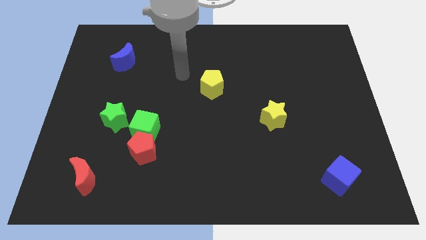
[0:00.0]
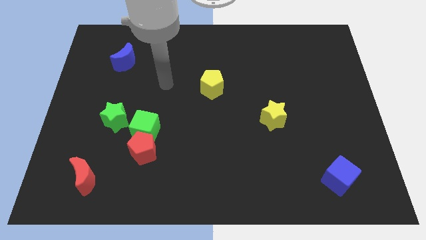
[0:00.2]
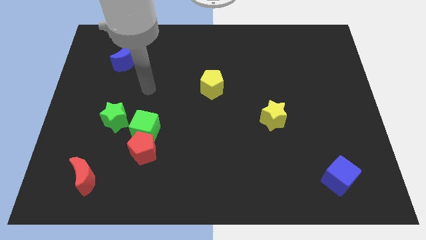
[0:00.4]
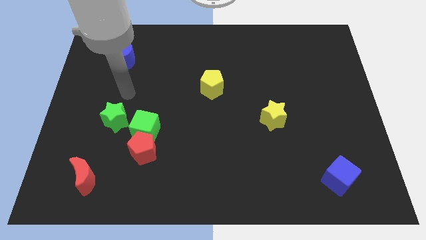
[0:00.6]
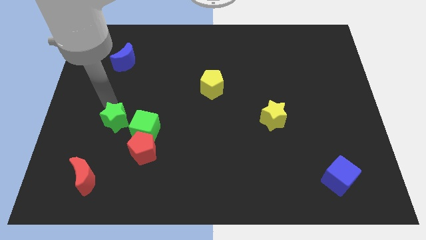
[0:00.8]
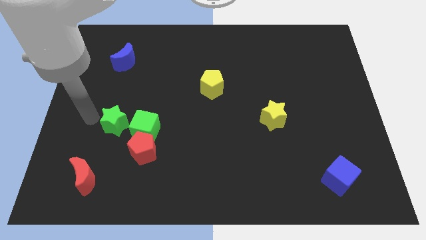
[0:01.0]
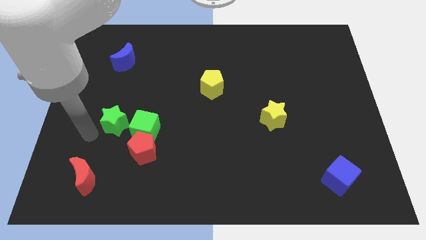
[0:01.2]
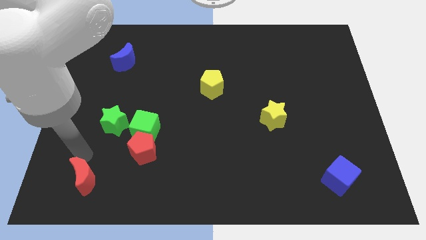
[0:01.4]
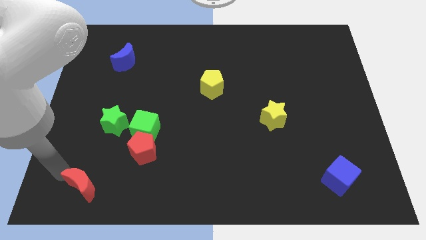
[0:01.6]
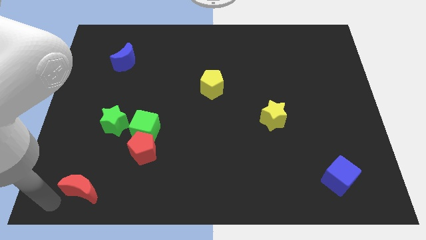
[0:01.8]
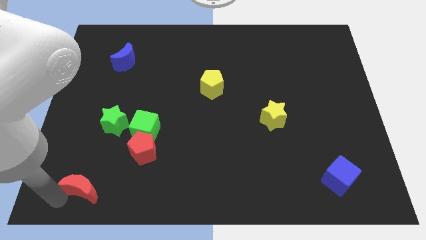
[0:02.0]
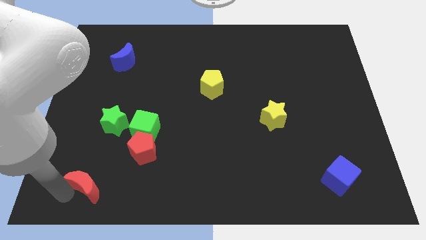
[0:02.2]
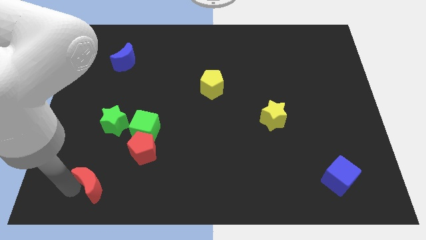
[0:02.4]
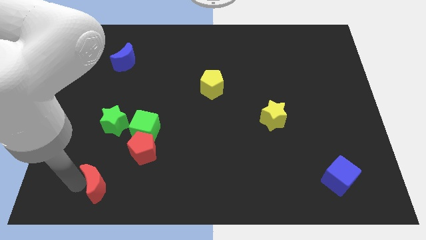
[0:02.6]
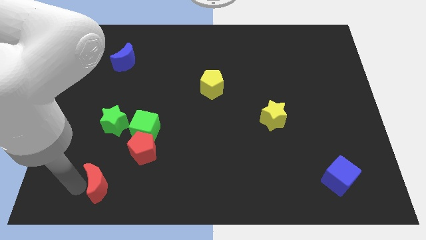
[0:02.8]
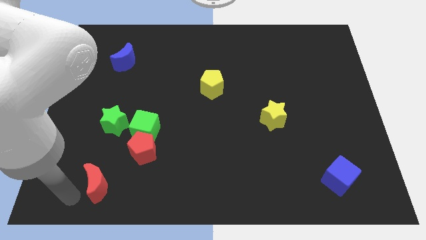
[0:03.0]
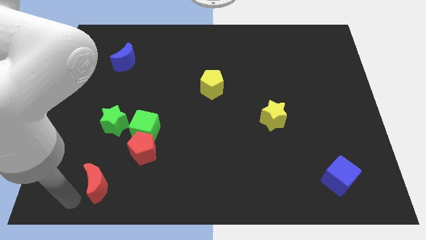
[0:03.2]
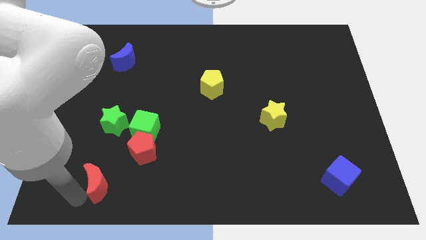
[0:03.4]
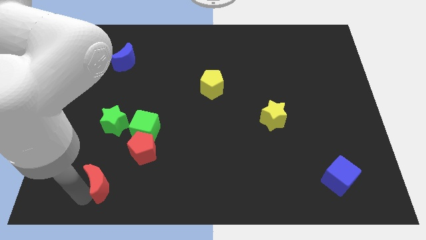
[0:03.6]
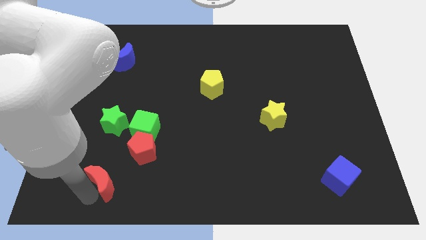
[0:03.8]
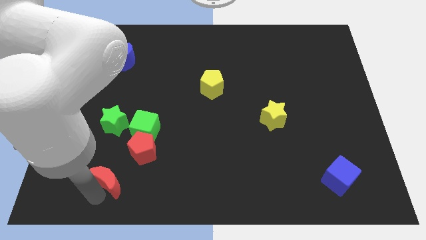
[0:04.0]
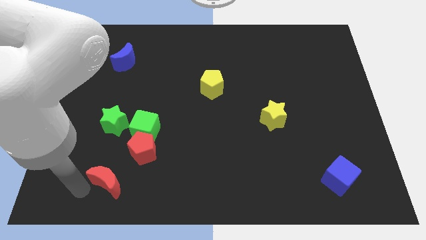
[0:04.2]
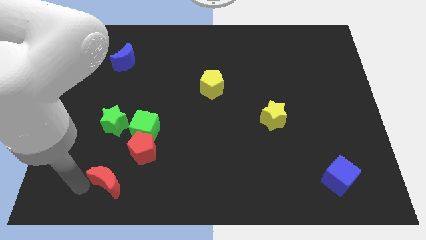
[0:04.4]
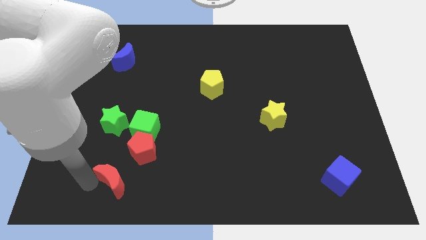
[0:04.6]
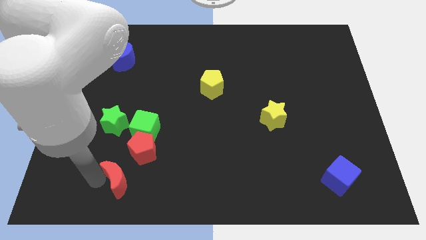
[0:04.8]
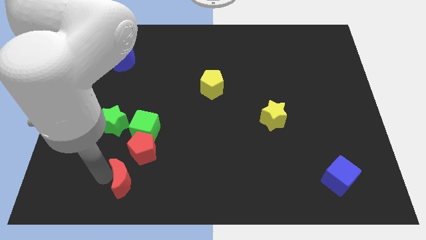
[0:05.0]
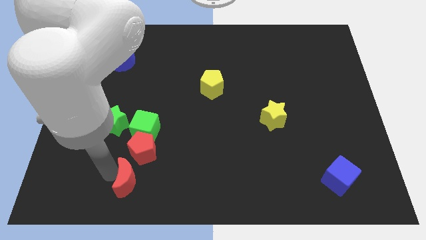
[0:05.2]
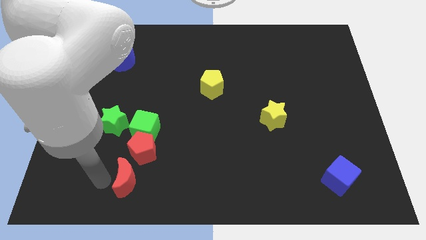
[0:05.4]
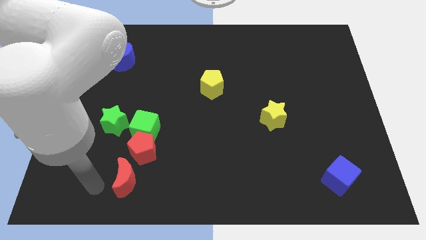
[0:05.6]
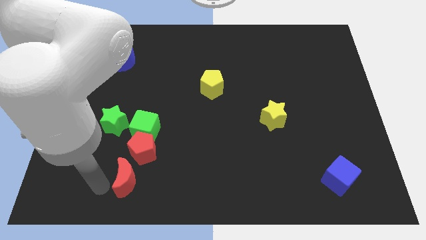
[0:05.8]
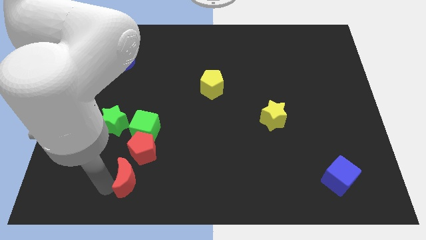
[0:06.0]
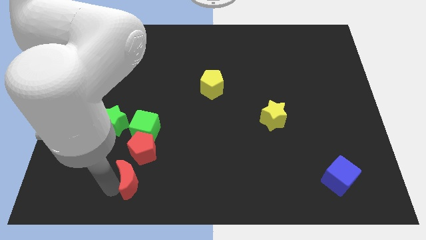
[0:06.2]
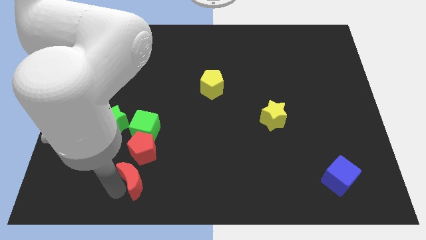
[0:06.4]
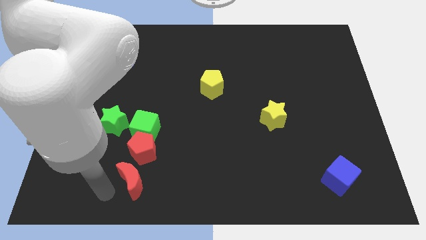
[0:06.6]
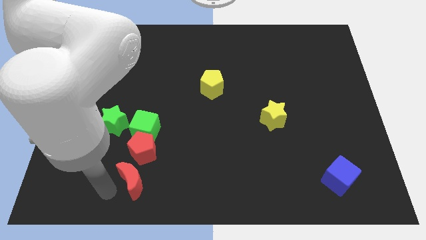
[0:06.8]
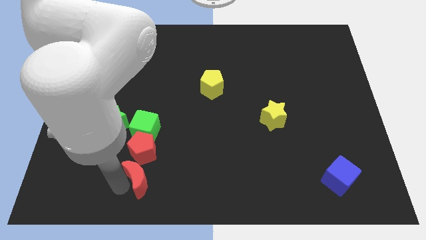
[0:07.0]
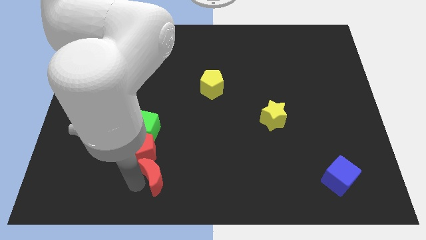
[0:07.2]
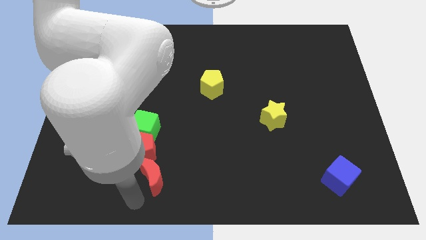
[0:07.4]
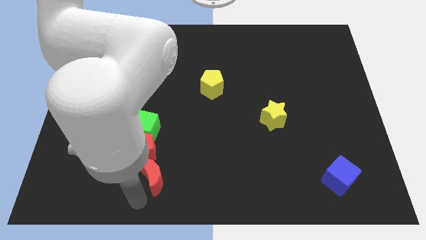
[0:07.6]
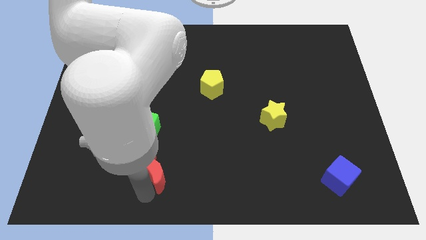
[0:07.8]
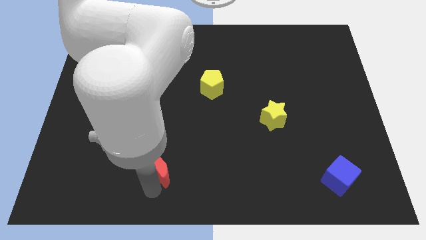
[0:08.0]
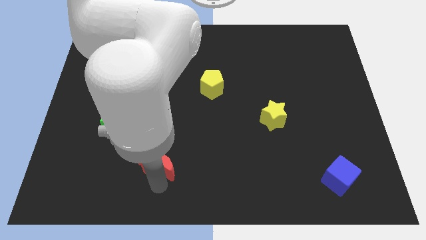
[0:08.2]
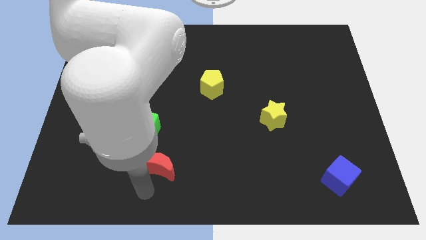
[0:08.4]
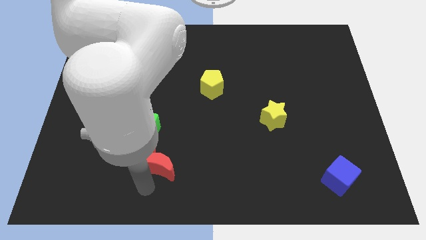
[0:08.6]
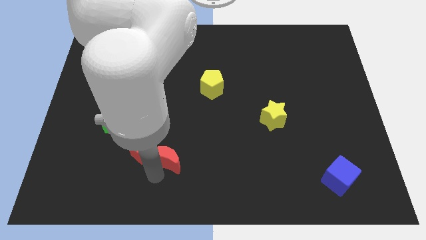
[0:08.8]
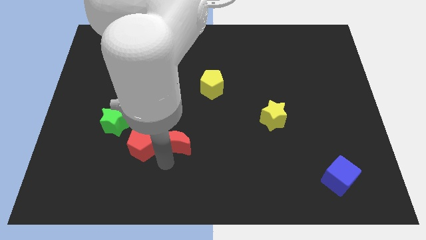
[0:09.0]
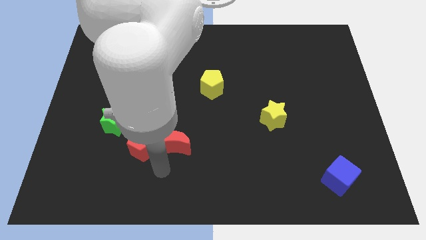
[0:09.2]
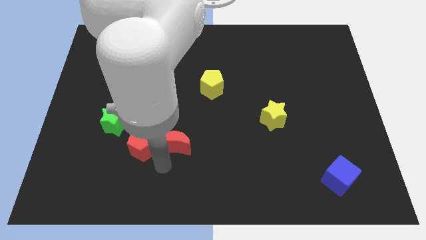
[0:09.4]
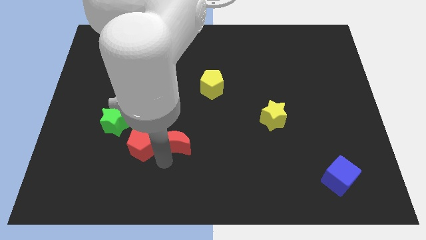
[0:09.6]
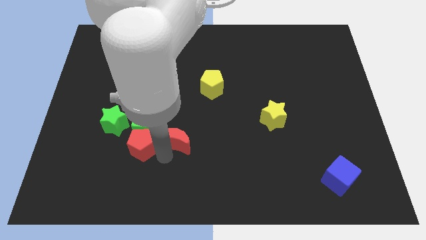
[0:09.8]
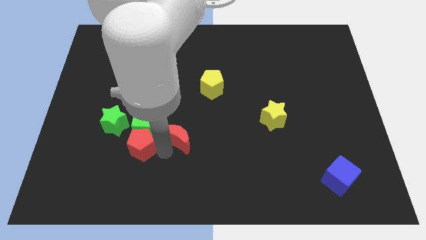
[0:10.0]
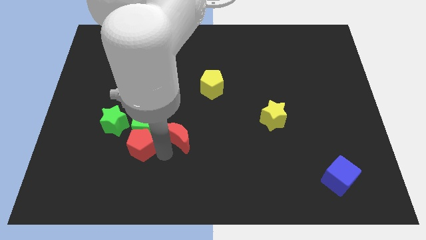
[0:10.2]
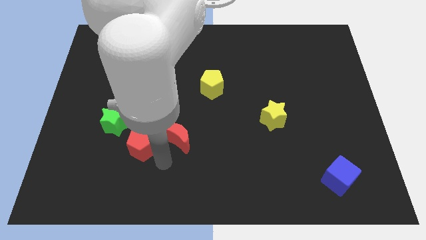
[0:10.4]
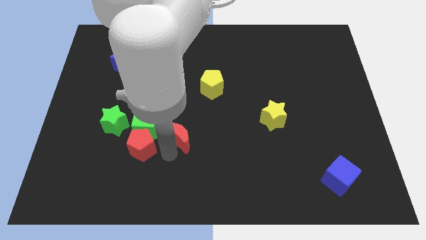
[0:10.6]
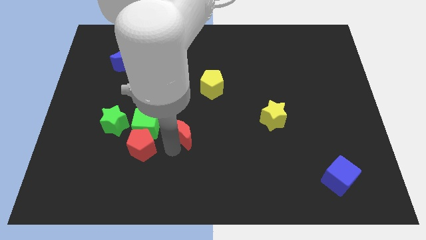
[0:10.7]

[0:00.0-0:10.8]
move the red moon to the right of the green star

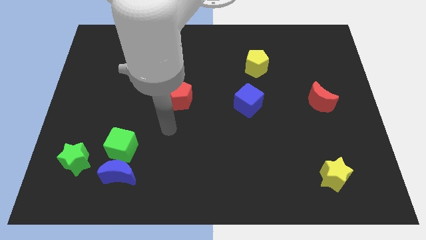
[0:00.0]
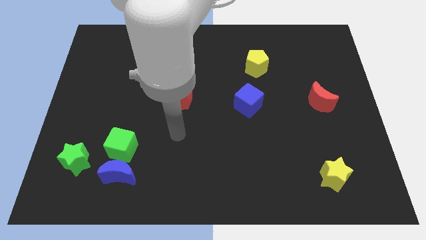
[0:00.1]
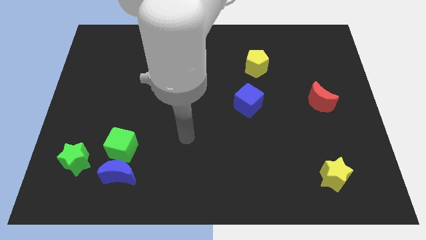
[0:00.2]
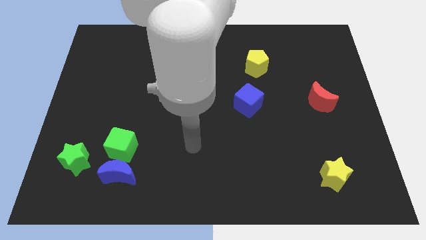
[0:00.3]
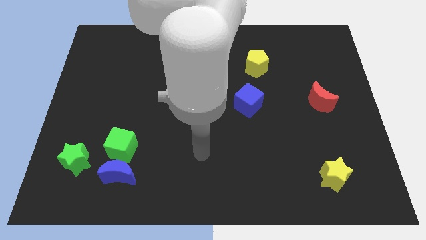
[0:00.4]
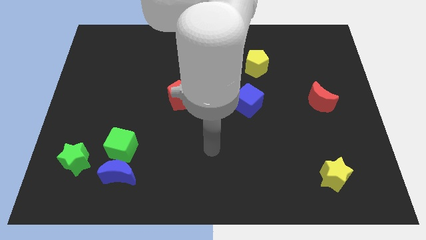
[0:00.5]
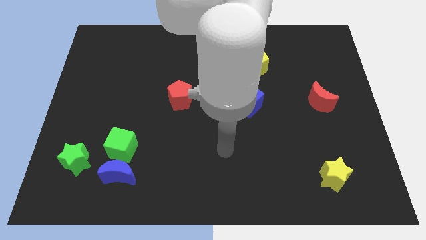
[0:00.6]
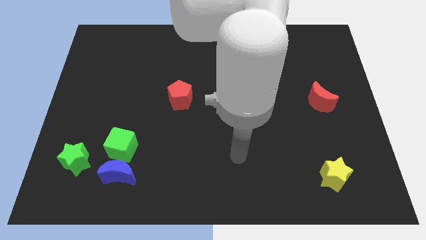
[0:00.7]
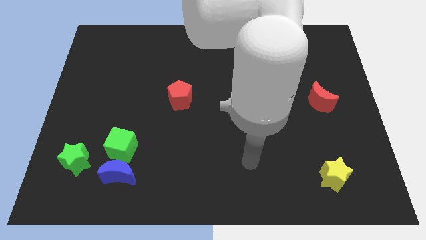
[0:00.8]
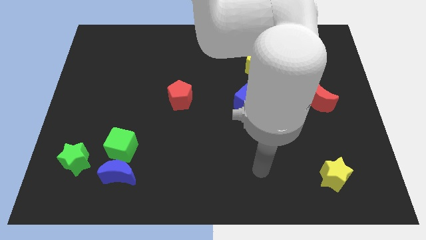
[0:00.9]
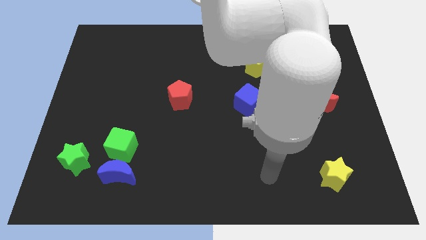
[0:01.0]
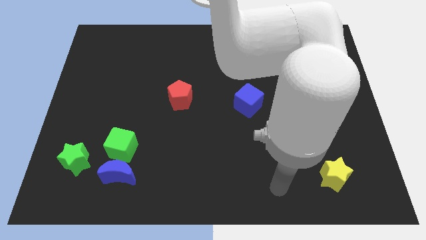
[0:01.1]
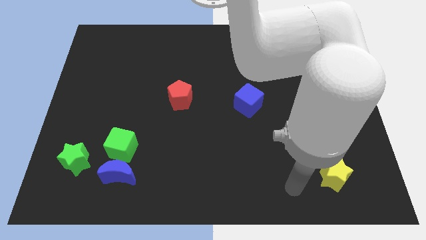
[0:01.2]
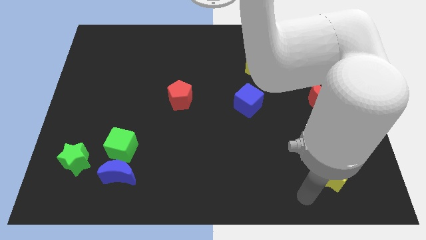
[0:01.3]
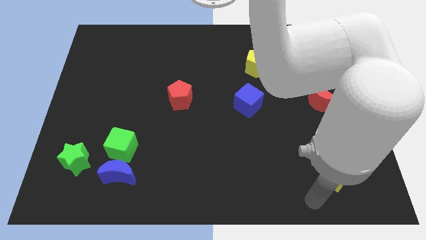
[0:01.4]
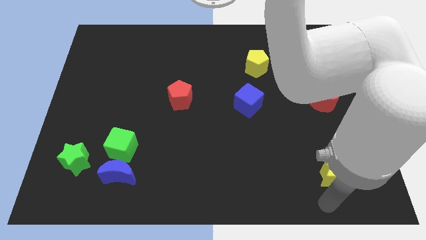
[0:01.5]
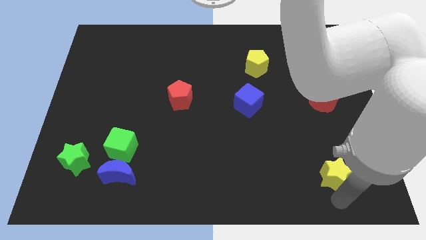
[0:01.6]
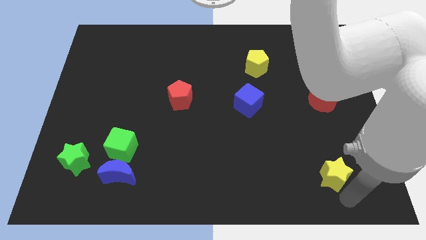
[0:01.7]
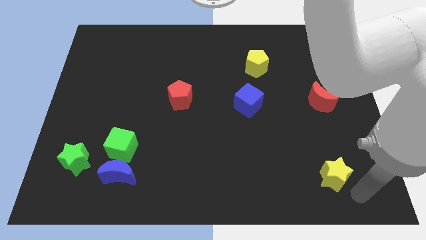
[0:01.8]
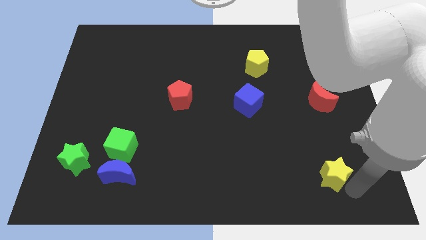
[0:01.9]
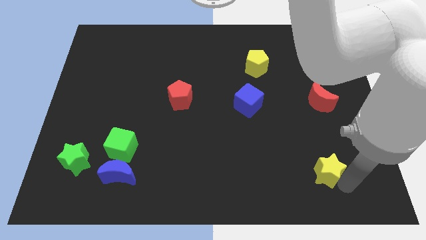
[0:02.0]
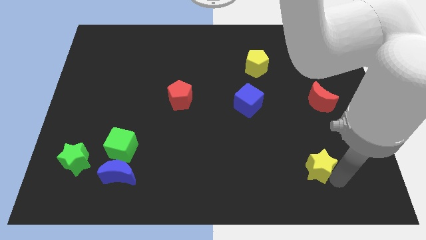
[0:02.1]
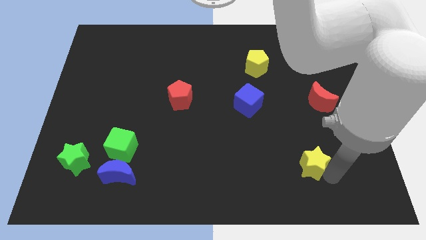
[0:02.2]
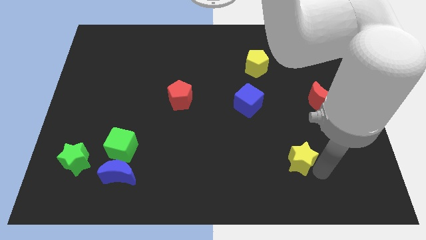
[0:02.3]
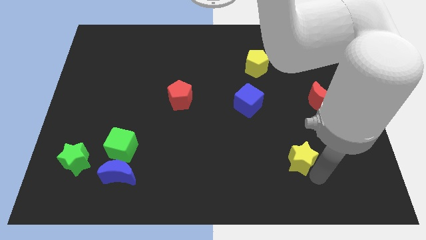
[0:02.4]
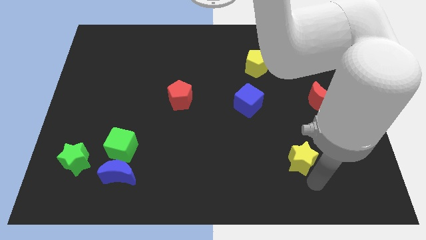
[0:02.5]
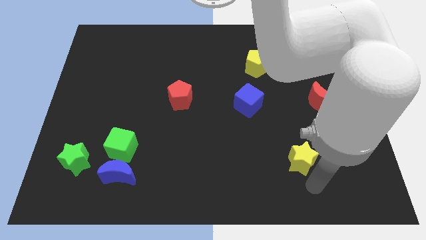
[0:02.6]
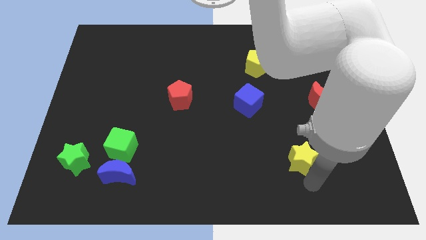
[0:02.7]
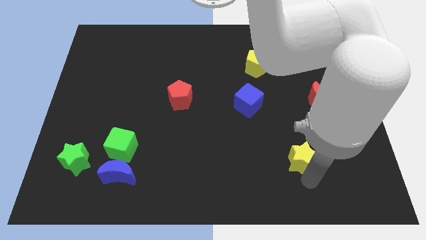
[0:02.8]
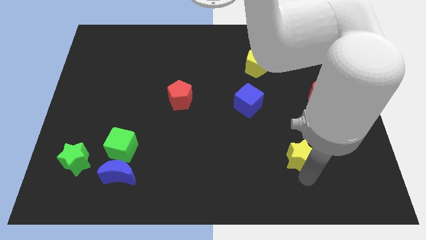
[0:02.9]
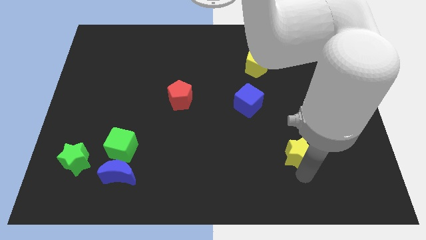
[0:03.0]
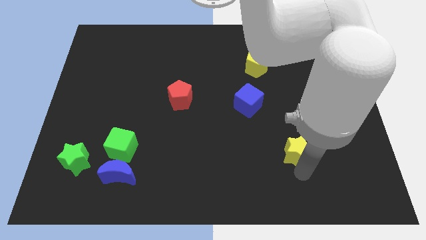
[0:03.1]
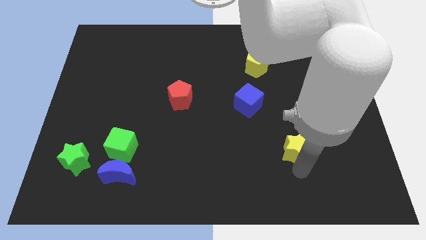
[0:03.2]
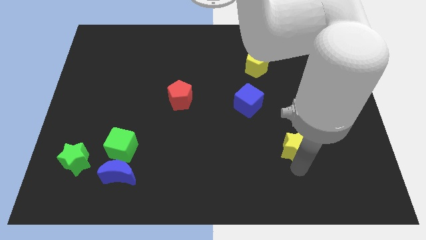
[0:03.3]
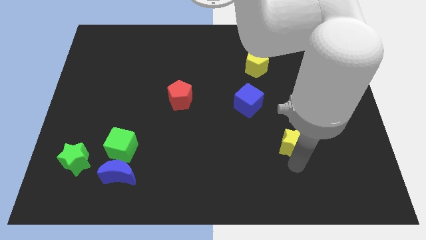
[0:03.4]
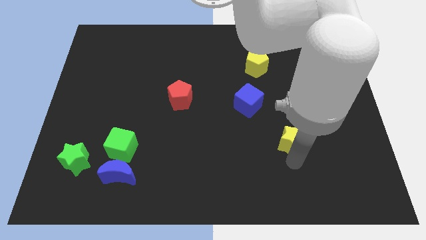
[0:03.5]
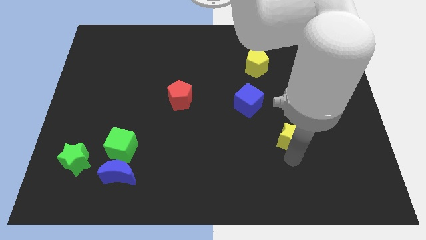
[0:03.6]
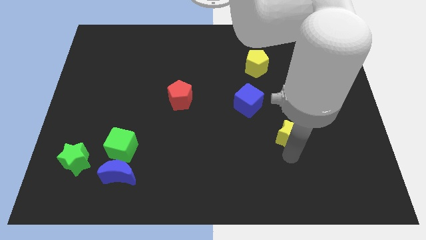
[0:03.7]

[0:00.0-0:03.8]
put the yellow star diagonally down and to the right of the blue cube
